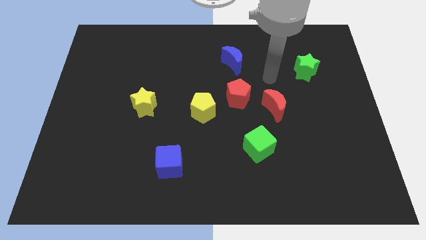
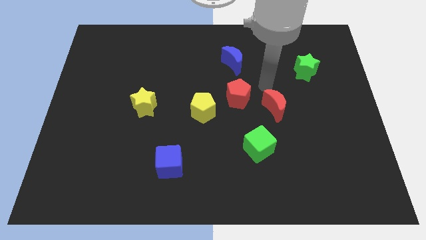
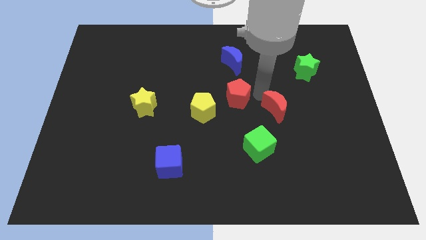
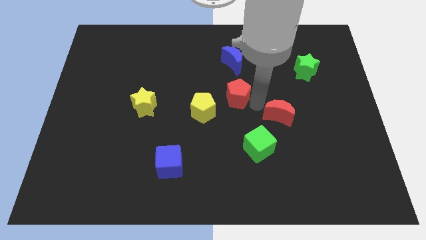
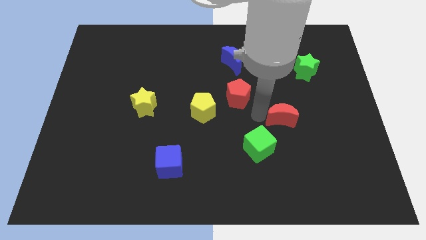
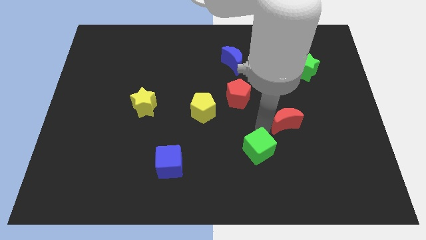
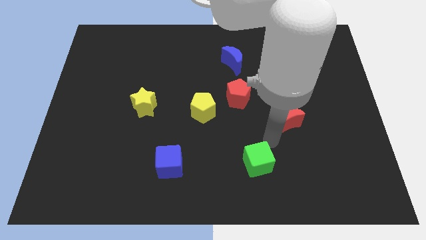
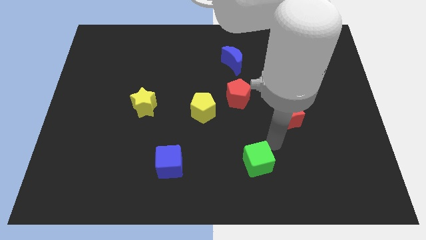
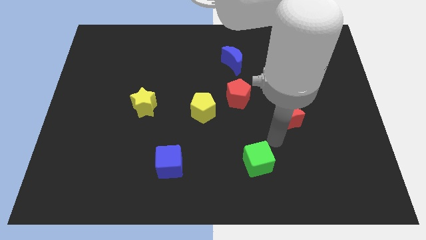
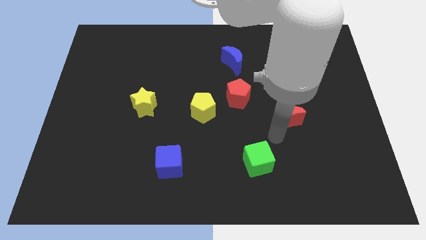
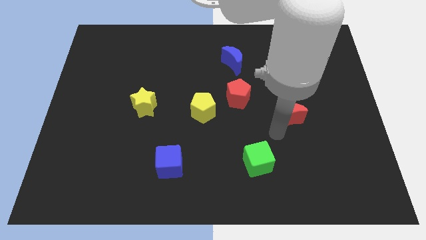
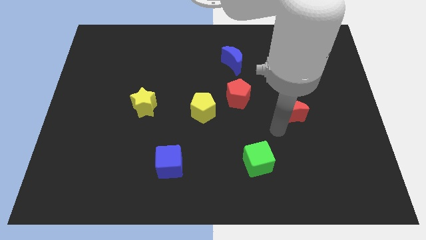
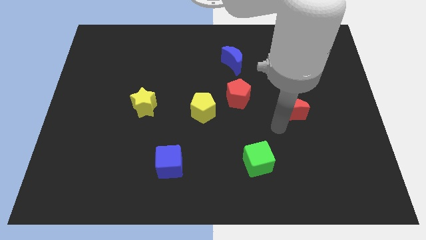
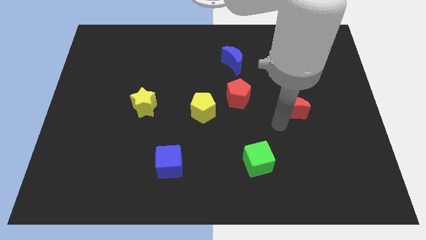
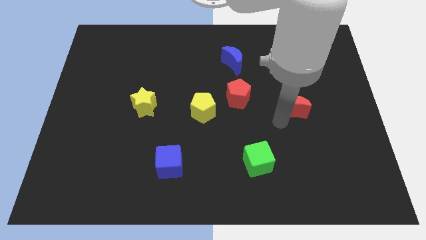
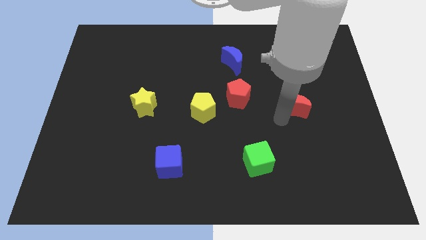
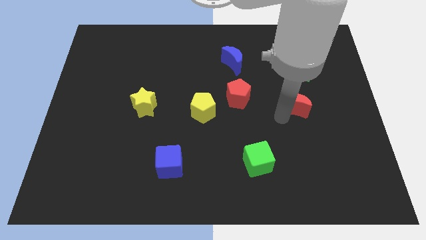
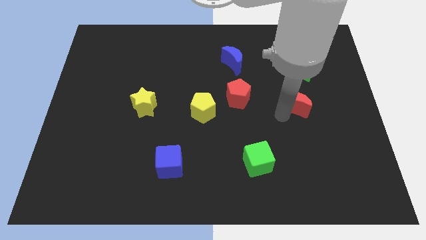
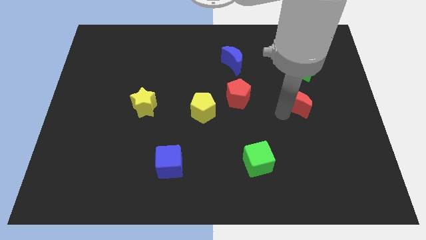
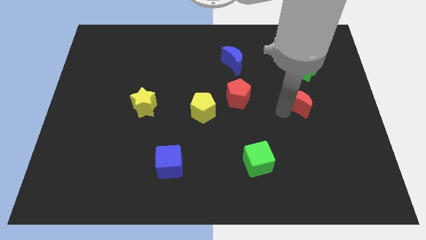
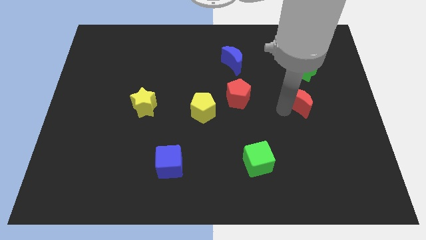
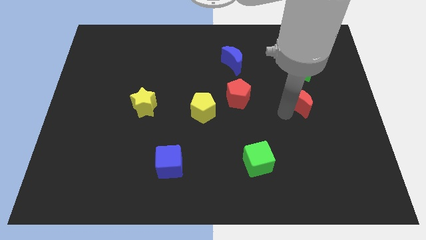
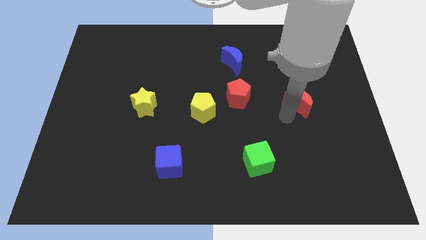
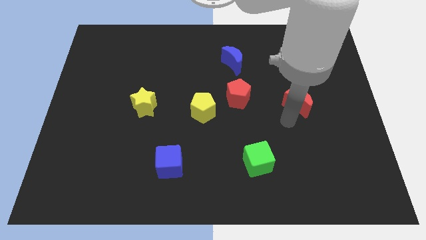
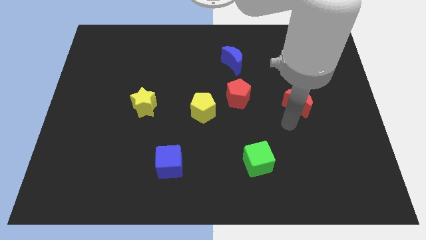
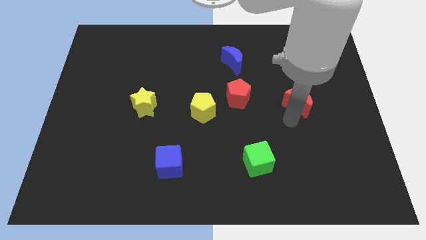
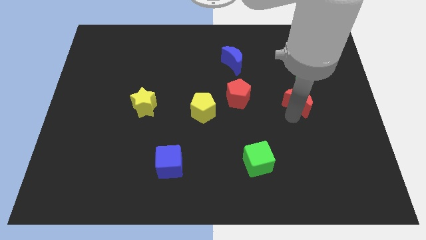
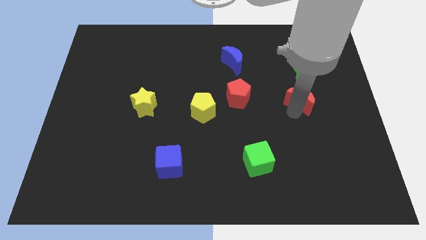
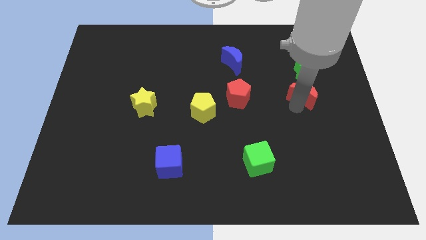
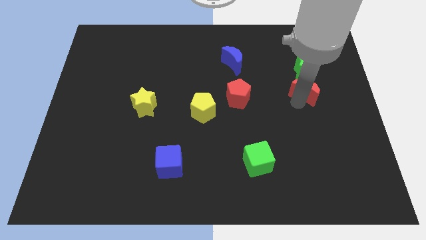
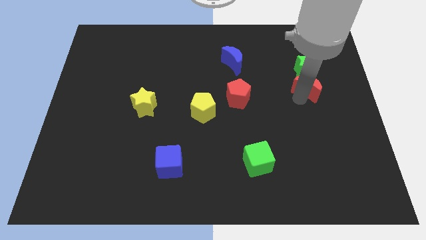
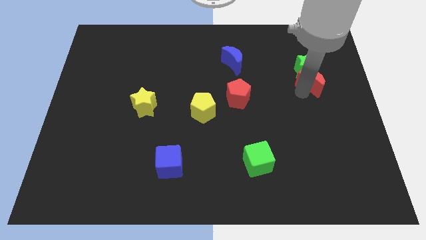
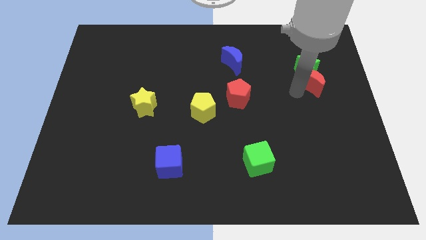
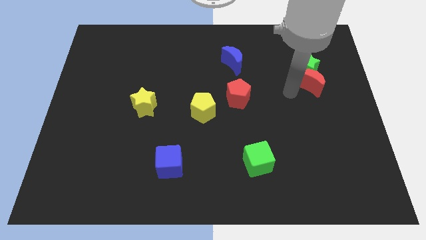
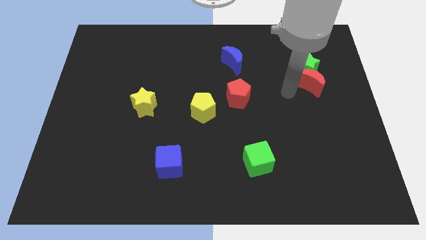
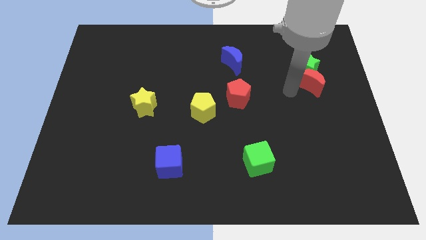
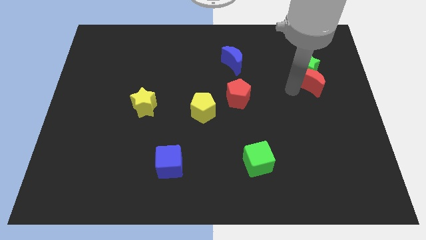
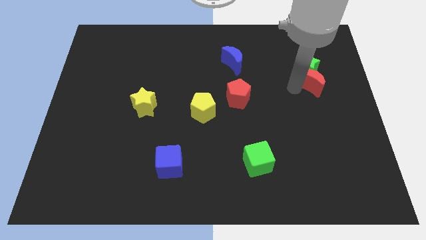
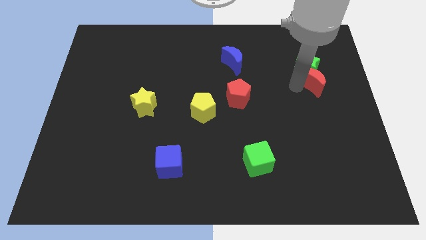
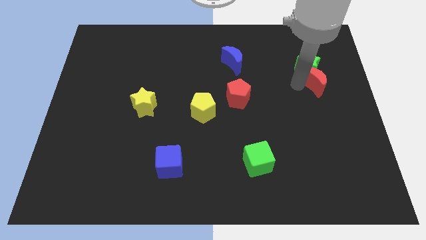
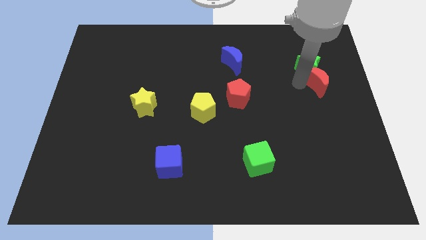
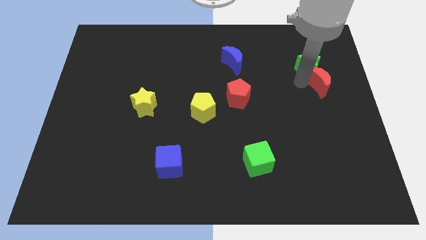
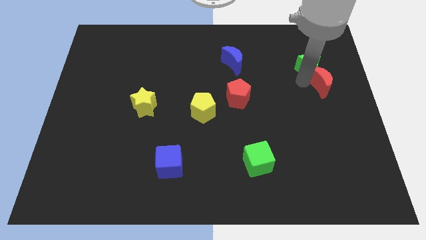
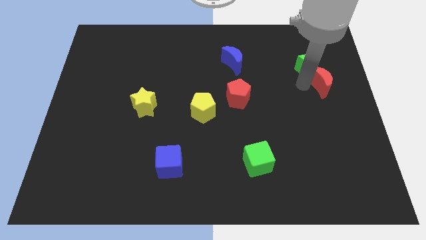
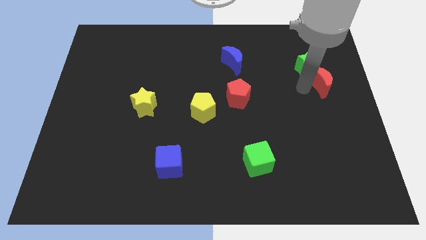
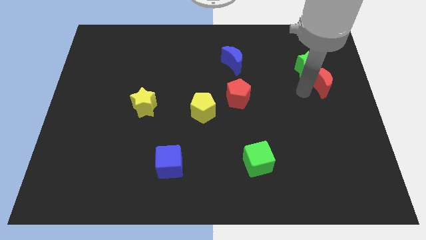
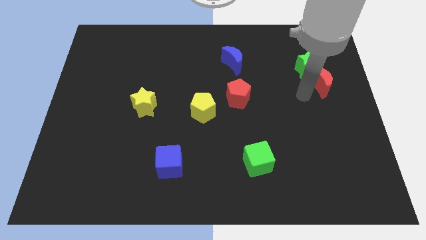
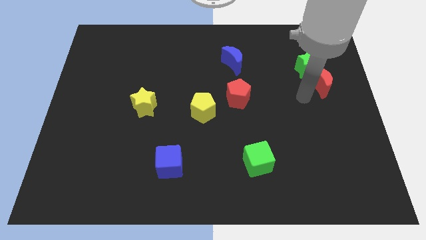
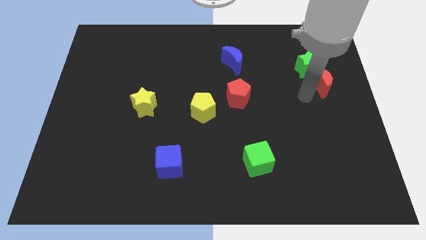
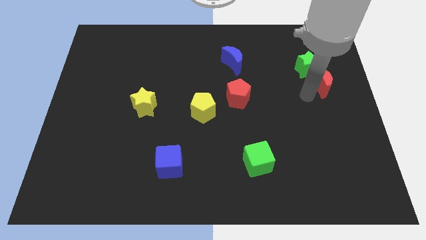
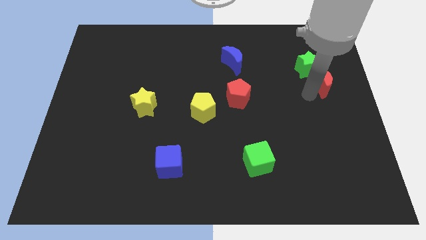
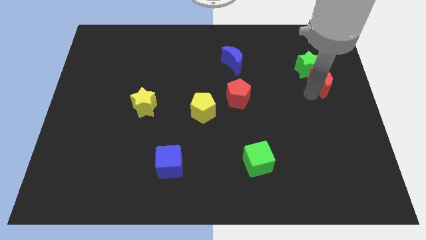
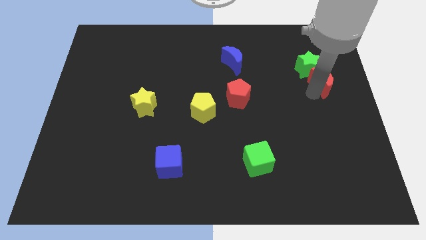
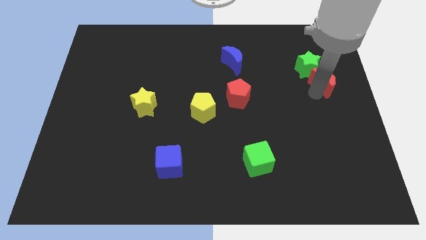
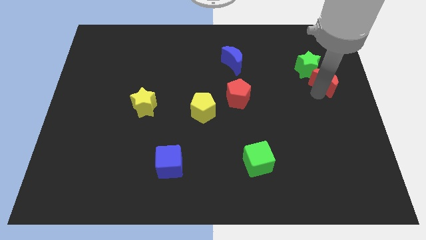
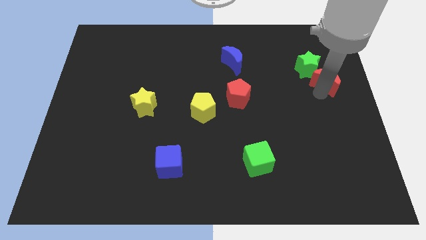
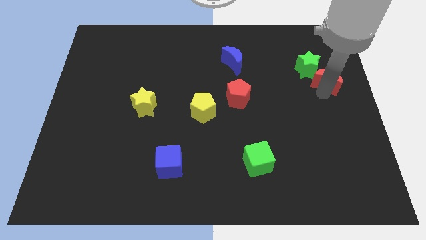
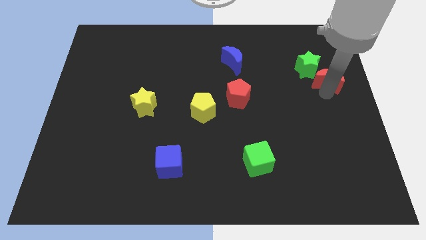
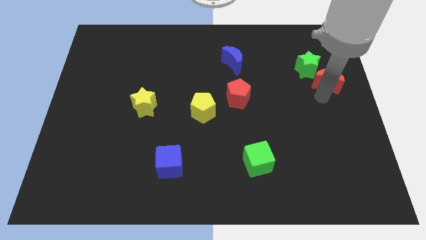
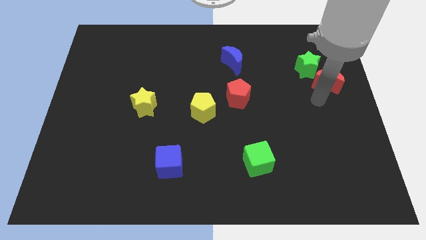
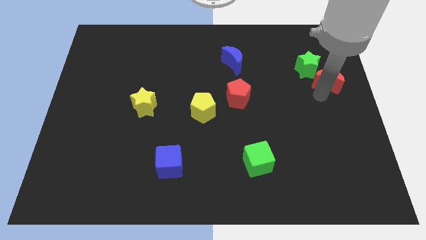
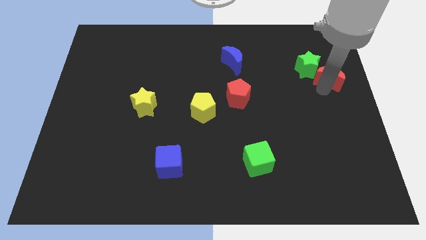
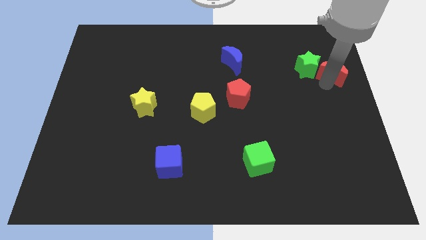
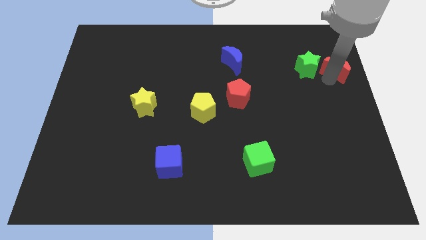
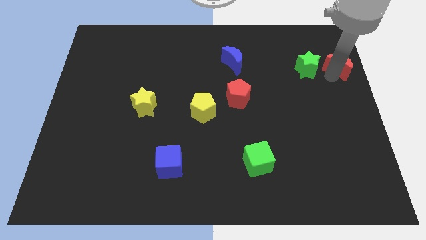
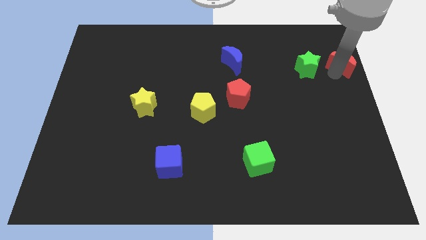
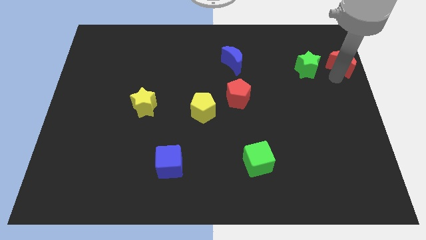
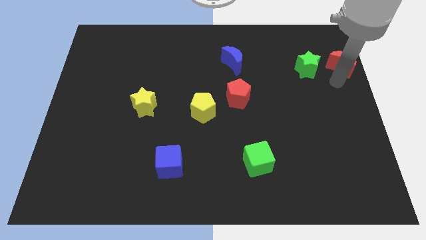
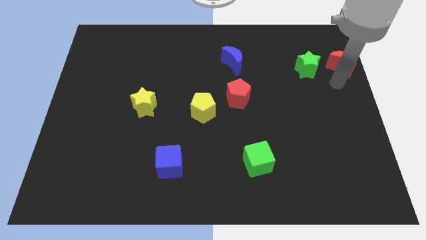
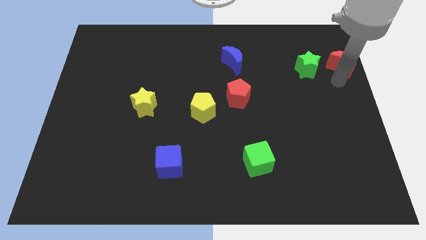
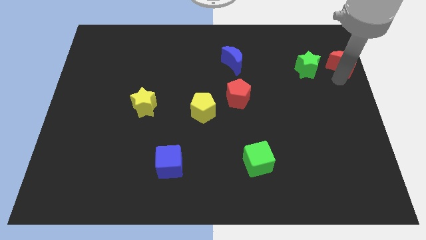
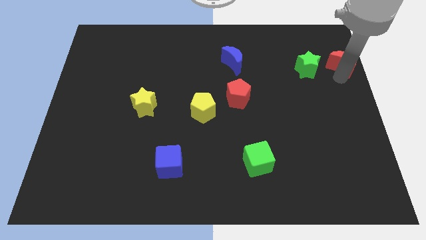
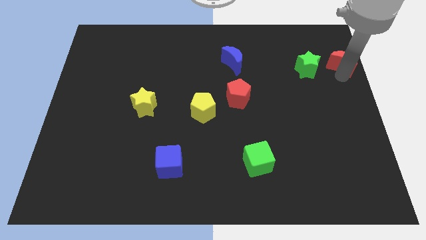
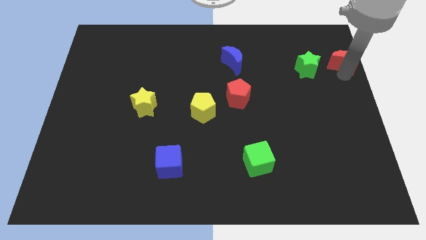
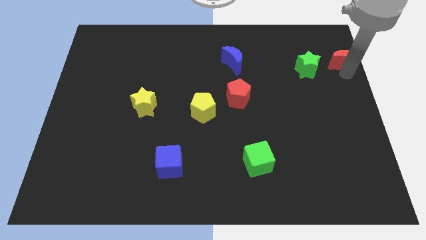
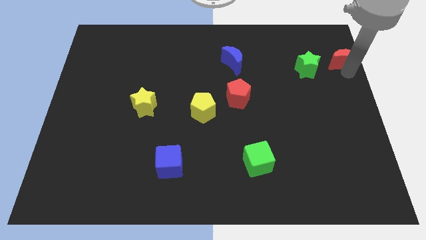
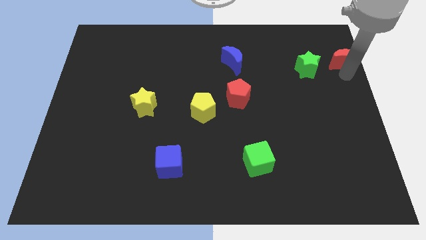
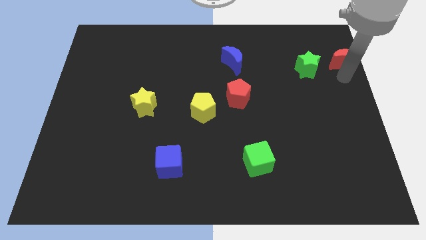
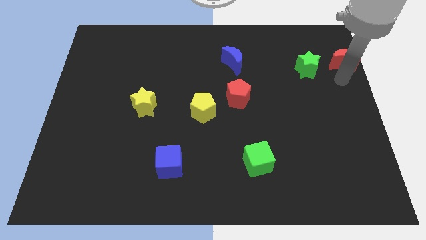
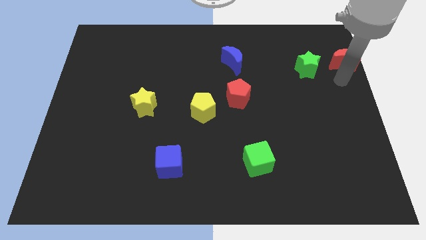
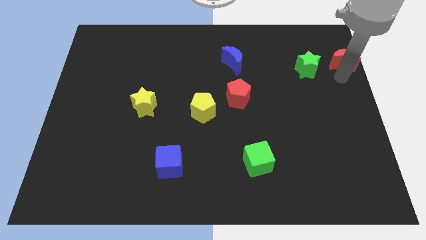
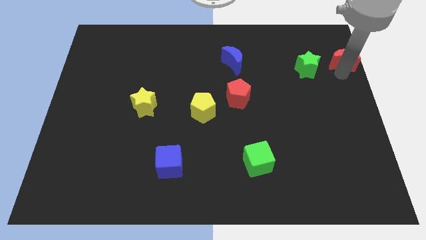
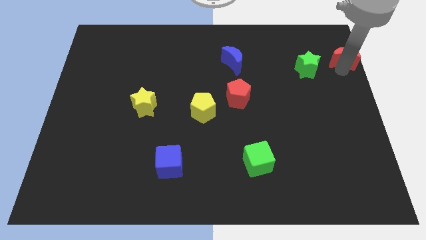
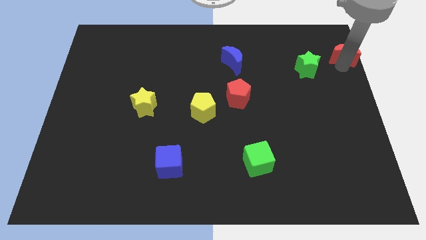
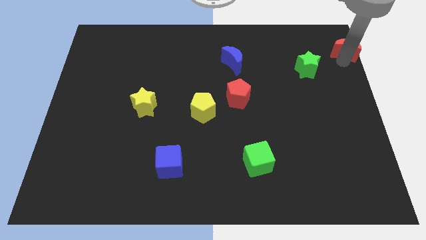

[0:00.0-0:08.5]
move the red moon to the top right of the board
